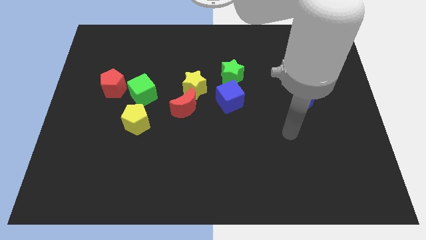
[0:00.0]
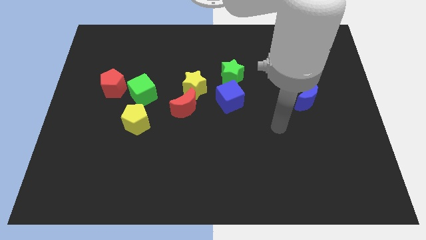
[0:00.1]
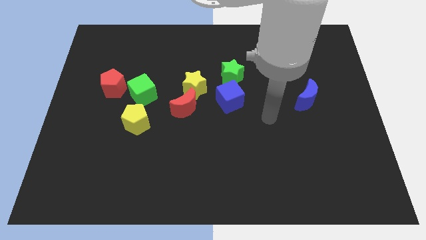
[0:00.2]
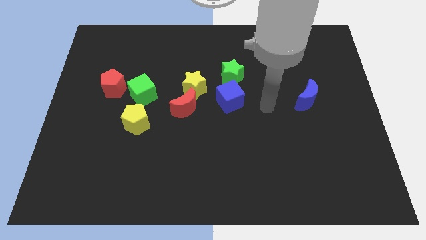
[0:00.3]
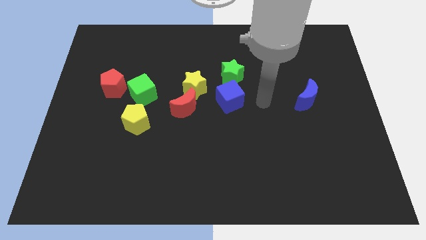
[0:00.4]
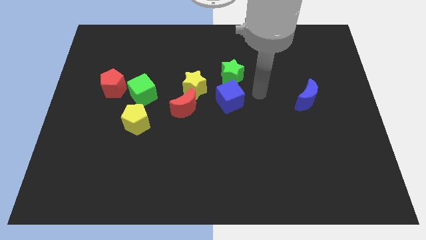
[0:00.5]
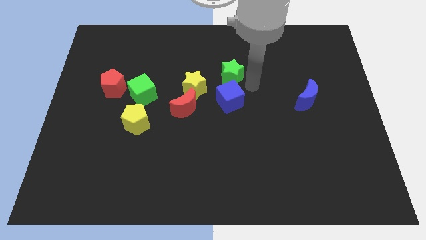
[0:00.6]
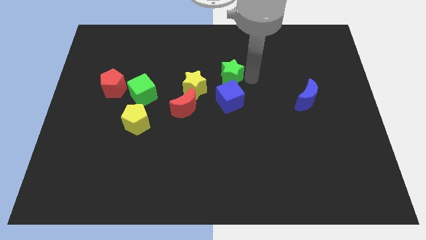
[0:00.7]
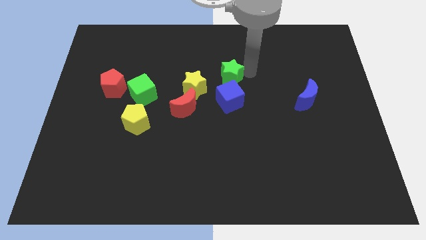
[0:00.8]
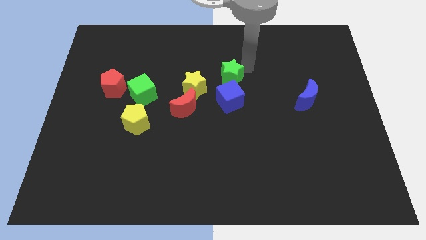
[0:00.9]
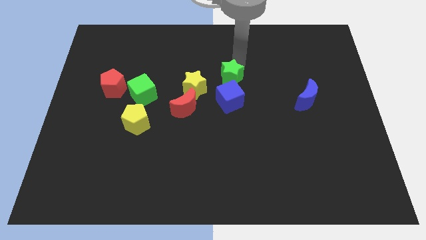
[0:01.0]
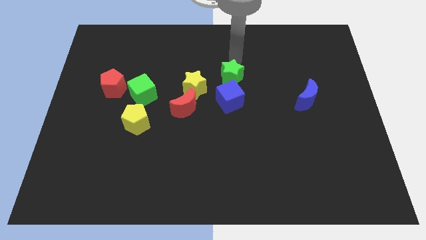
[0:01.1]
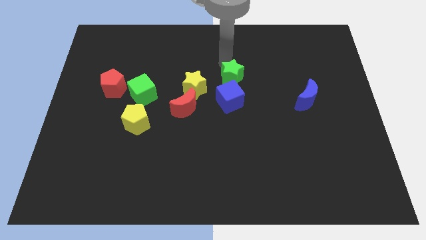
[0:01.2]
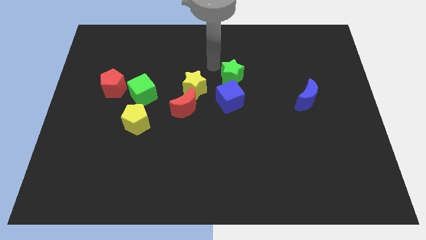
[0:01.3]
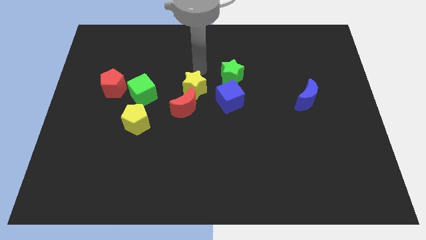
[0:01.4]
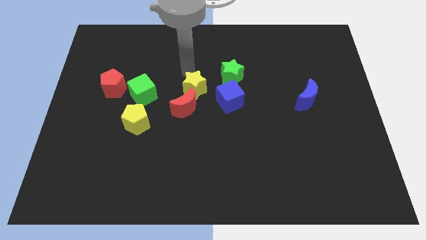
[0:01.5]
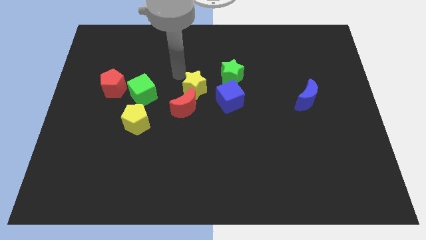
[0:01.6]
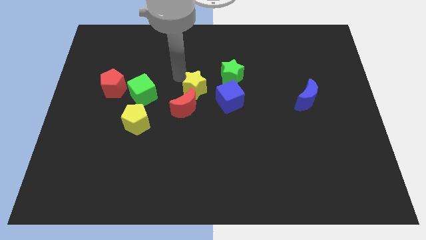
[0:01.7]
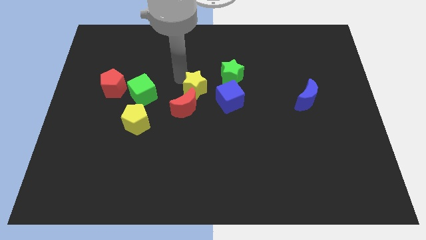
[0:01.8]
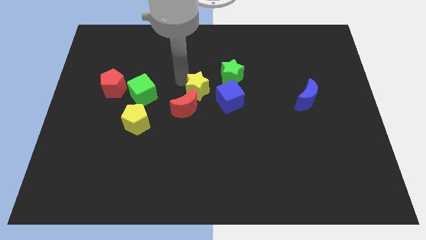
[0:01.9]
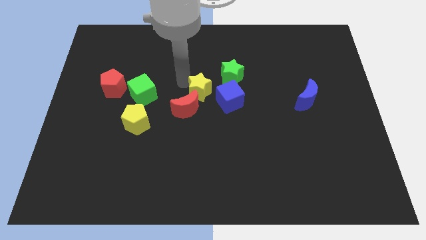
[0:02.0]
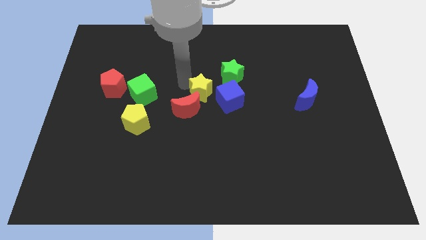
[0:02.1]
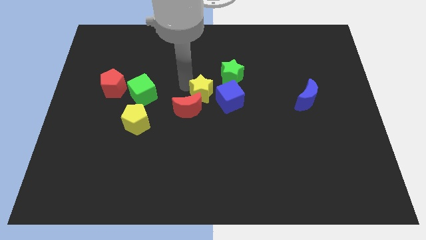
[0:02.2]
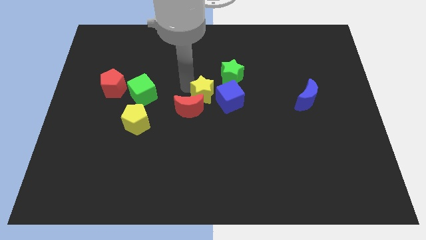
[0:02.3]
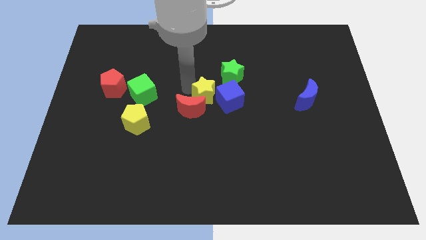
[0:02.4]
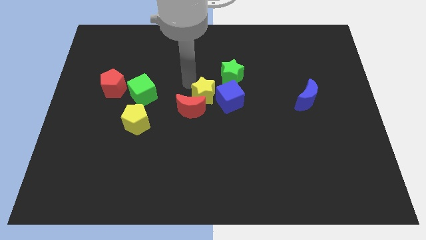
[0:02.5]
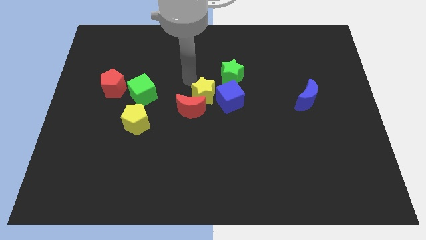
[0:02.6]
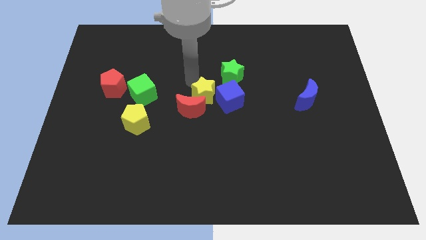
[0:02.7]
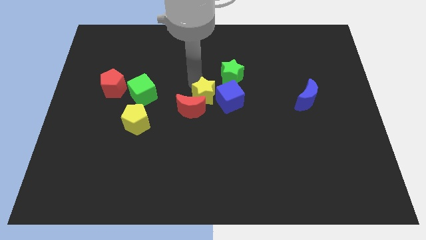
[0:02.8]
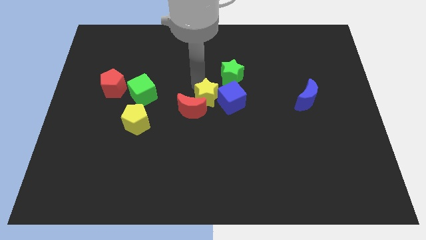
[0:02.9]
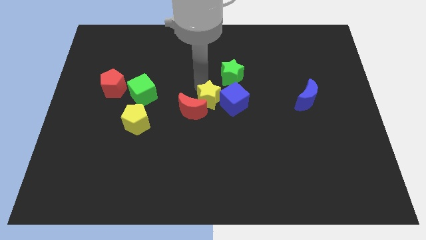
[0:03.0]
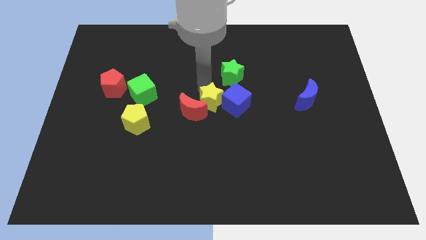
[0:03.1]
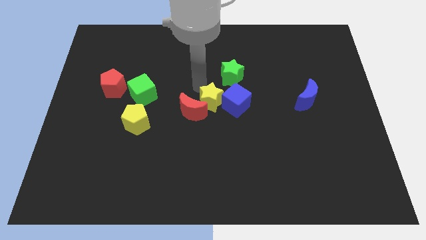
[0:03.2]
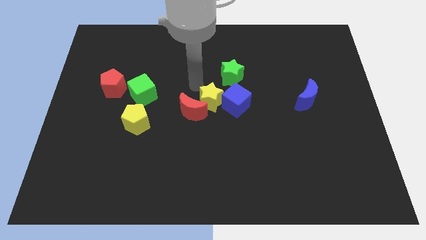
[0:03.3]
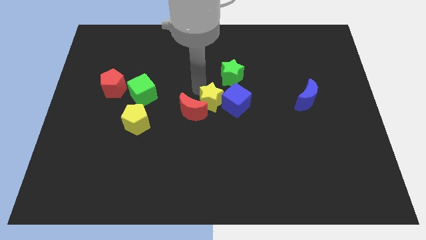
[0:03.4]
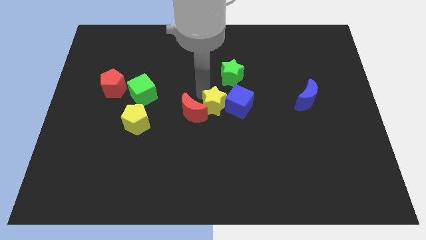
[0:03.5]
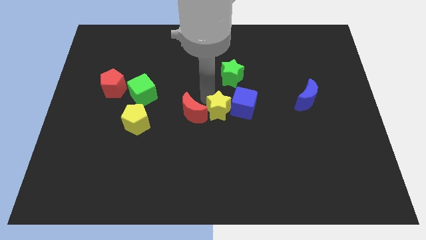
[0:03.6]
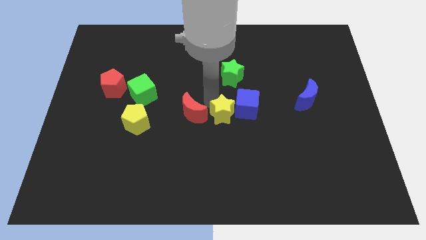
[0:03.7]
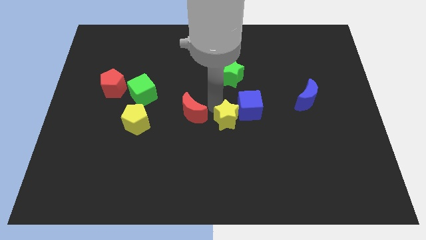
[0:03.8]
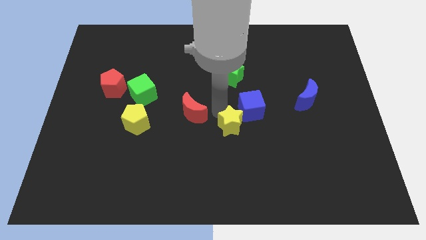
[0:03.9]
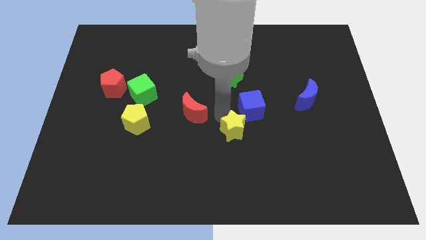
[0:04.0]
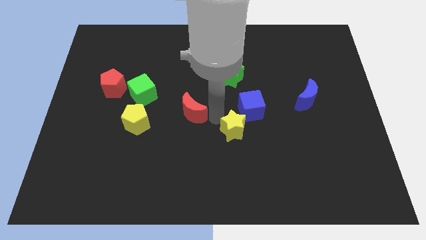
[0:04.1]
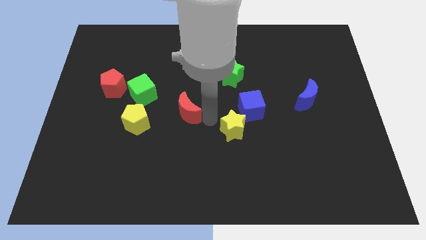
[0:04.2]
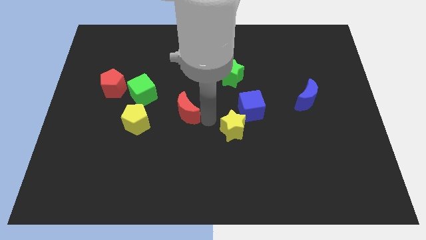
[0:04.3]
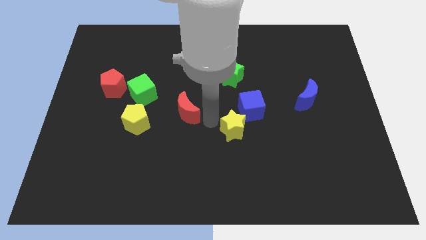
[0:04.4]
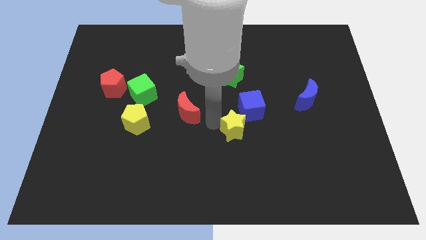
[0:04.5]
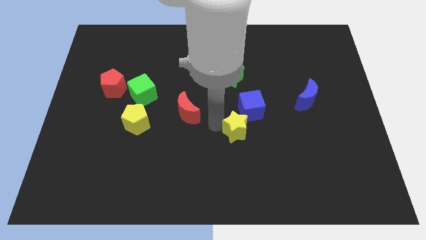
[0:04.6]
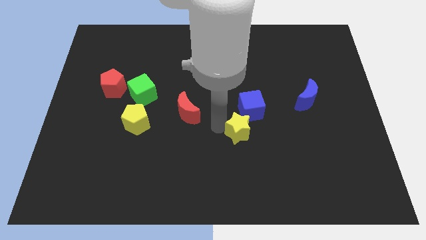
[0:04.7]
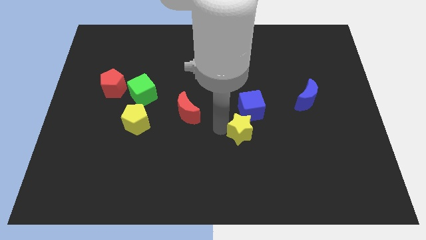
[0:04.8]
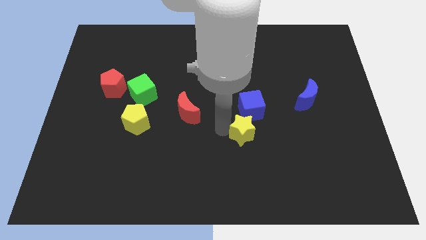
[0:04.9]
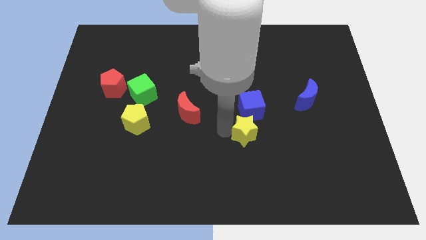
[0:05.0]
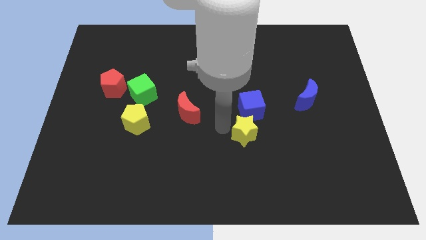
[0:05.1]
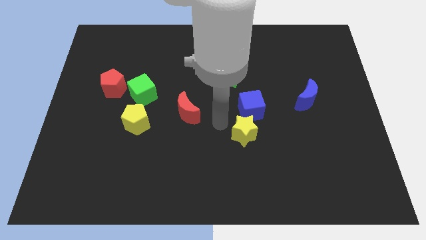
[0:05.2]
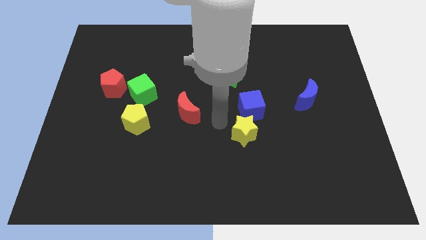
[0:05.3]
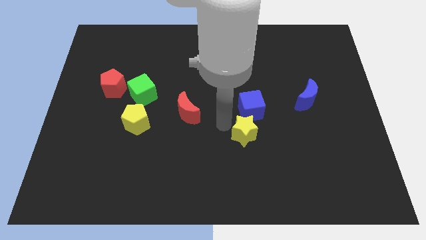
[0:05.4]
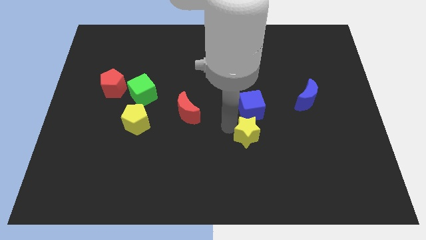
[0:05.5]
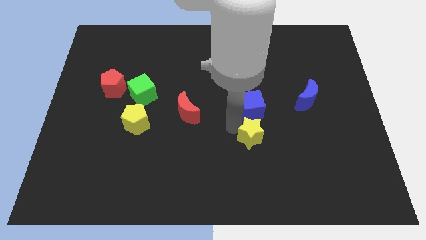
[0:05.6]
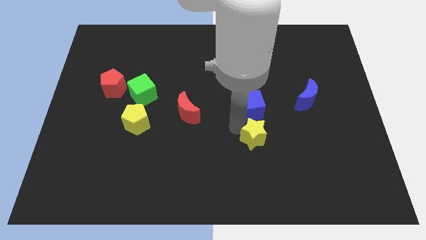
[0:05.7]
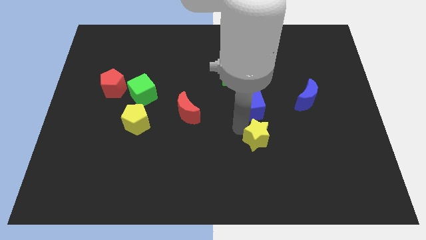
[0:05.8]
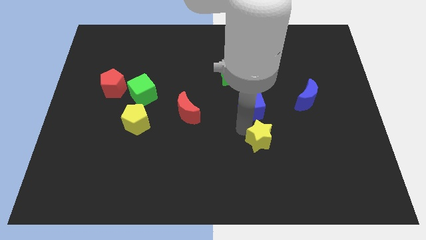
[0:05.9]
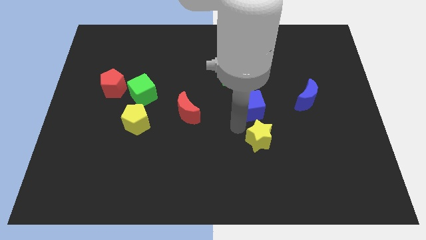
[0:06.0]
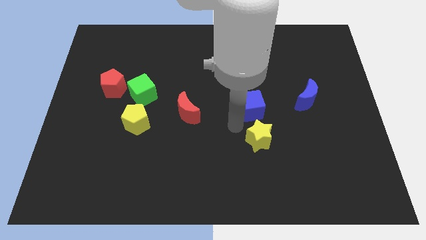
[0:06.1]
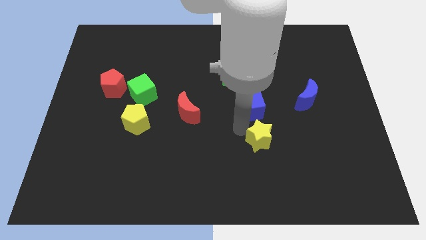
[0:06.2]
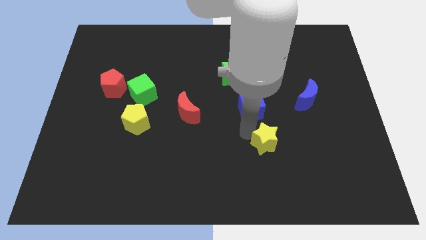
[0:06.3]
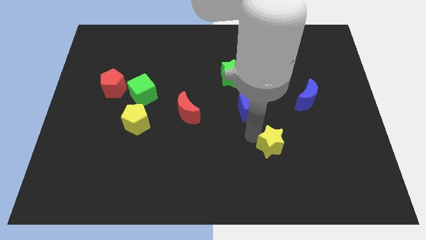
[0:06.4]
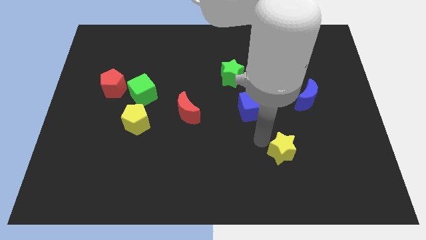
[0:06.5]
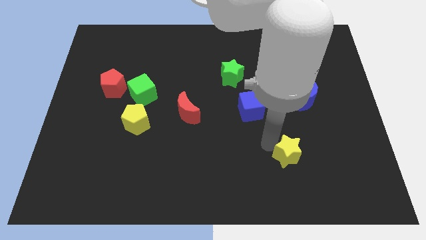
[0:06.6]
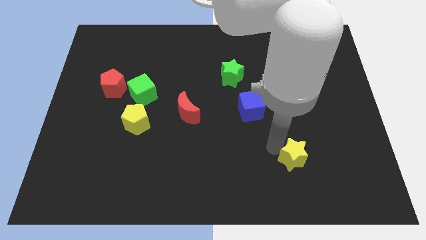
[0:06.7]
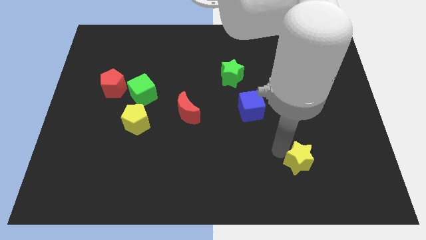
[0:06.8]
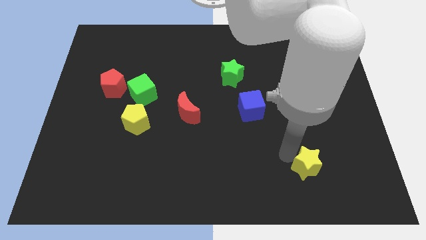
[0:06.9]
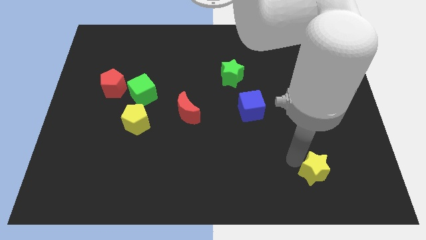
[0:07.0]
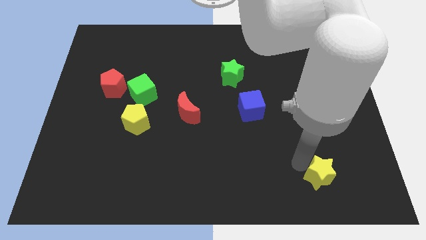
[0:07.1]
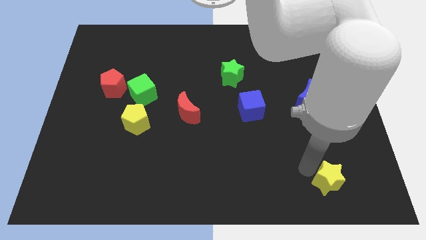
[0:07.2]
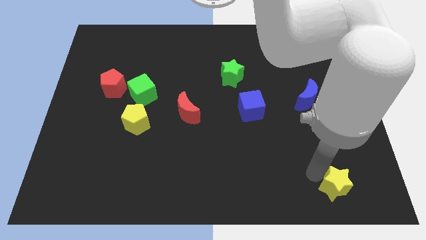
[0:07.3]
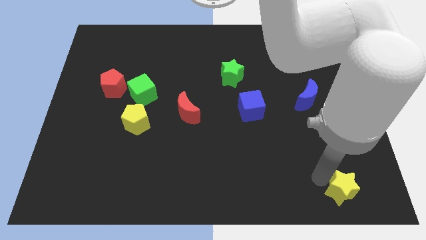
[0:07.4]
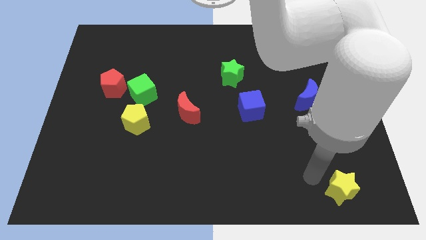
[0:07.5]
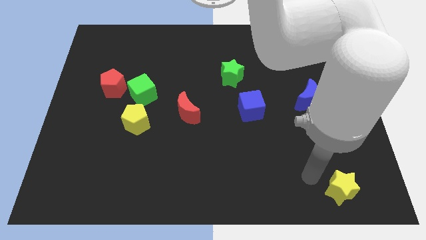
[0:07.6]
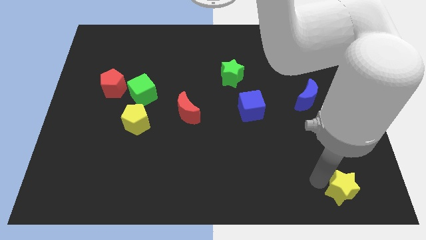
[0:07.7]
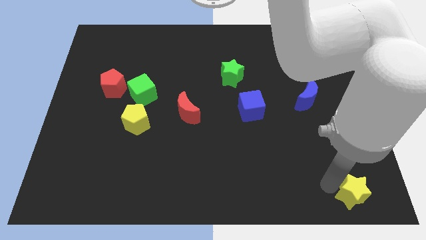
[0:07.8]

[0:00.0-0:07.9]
put the yellow star to the lower right corner

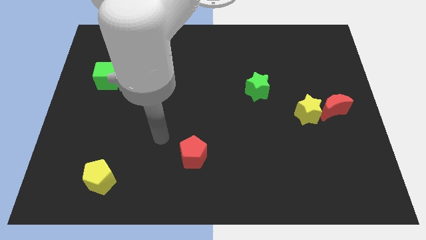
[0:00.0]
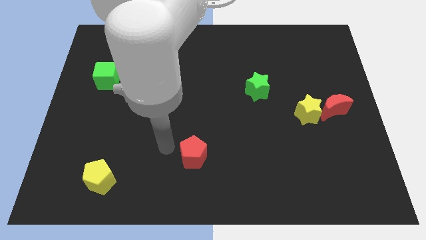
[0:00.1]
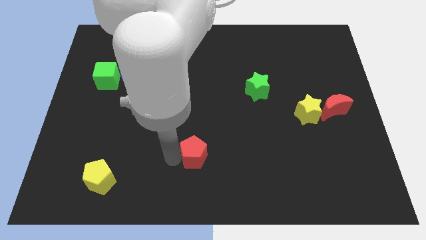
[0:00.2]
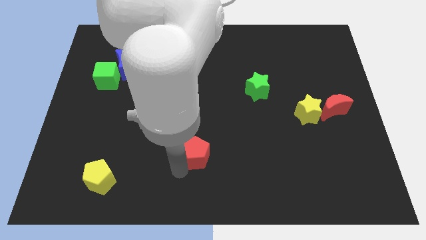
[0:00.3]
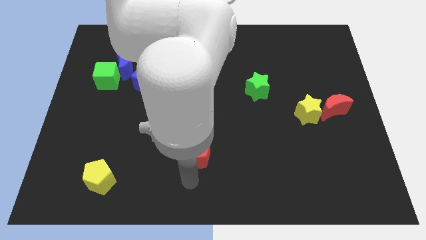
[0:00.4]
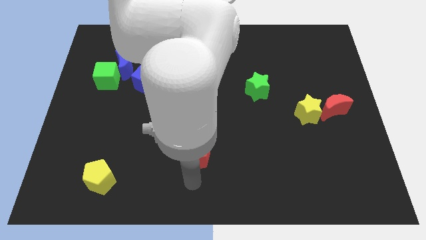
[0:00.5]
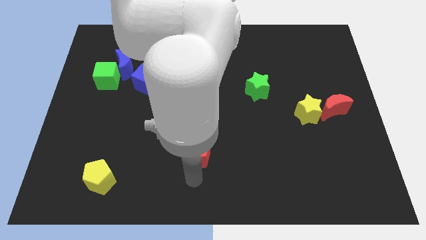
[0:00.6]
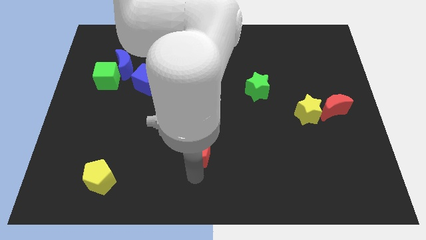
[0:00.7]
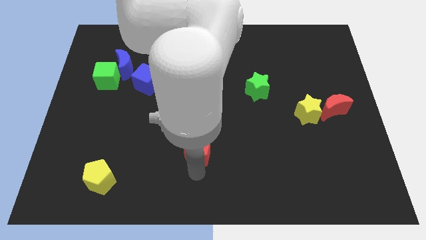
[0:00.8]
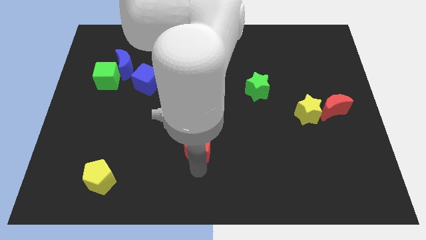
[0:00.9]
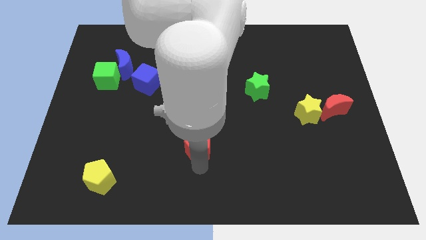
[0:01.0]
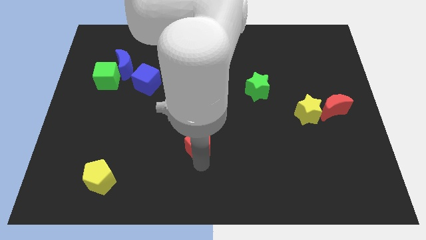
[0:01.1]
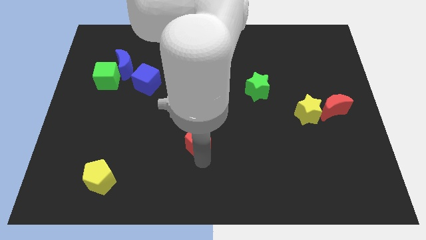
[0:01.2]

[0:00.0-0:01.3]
put the red pentagon to the middle
